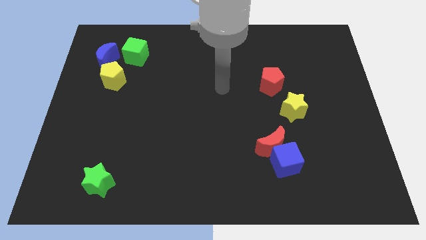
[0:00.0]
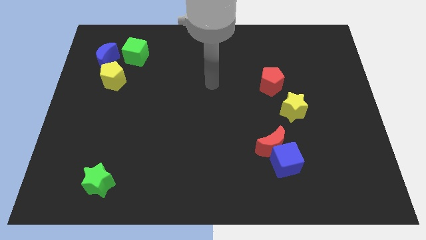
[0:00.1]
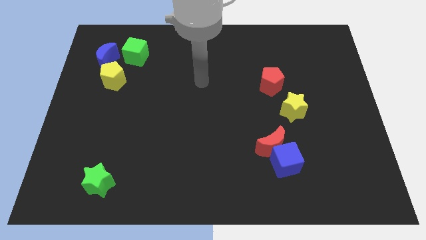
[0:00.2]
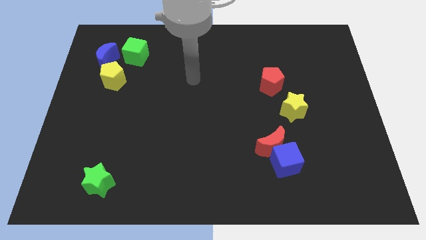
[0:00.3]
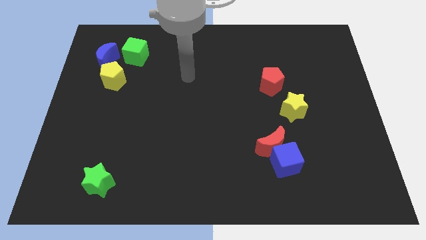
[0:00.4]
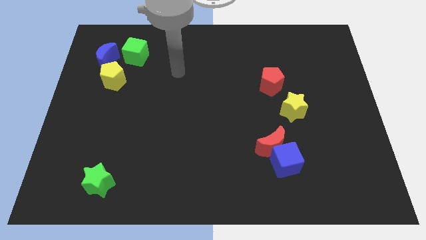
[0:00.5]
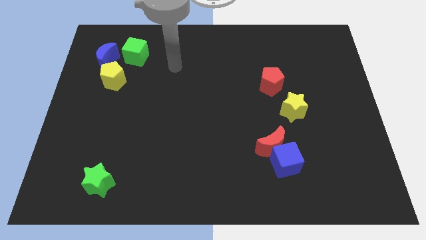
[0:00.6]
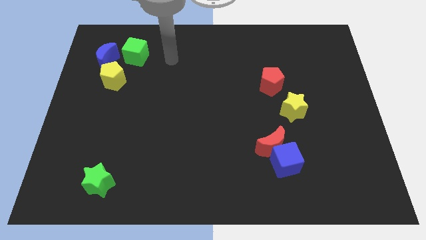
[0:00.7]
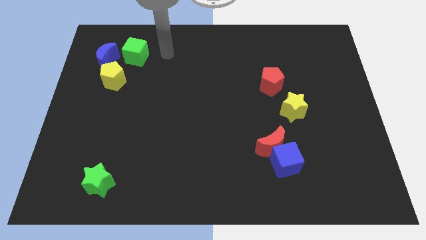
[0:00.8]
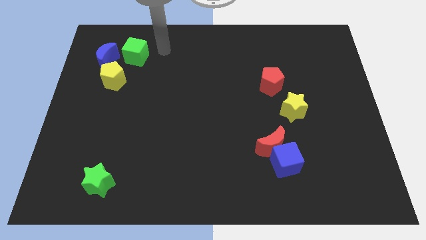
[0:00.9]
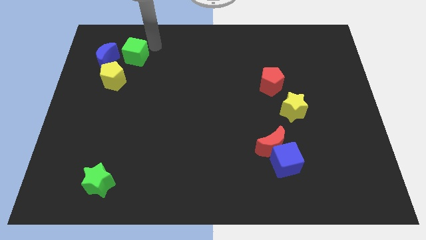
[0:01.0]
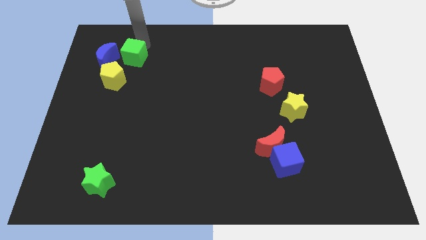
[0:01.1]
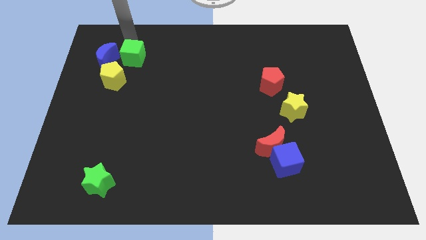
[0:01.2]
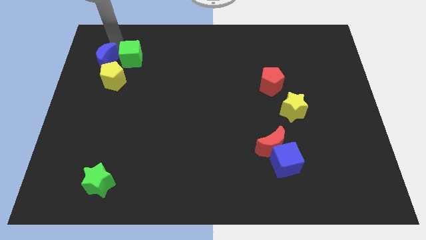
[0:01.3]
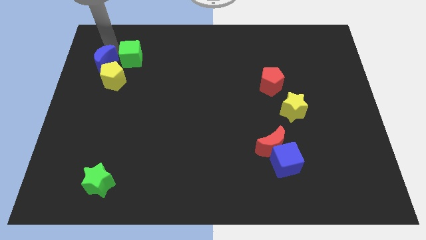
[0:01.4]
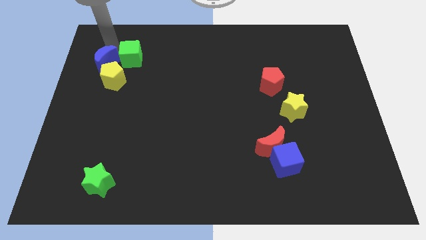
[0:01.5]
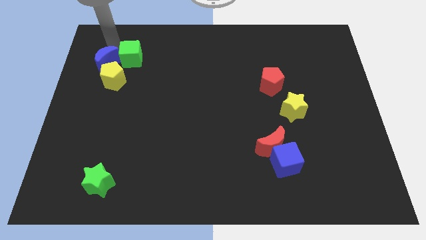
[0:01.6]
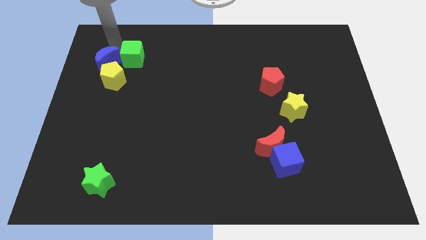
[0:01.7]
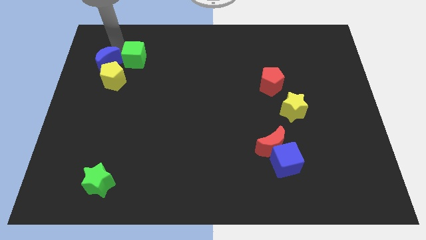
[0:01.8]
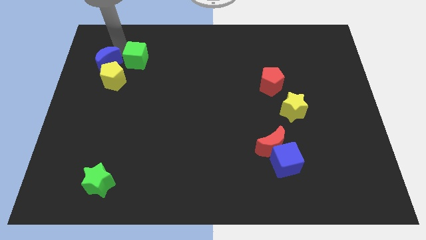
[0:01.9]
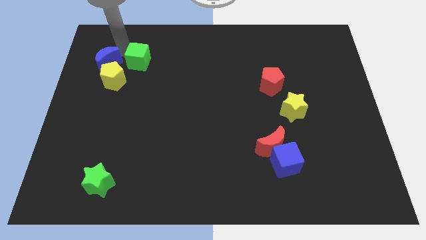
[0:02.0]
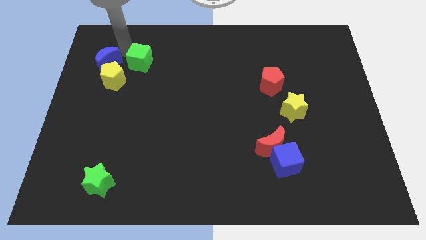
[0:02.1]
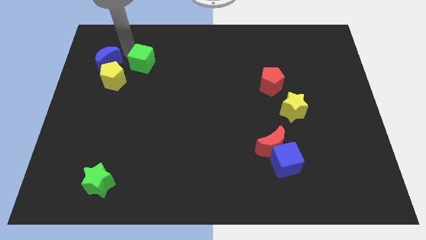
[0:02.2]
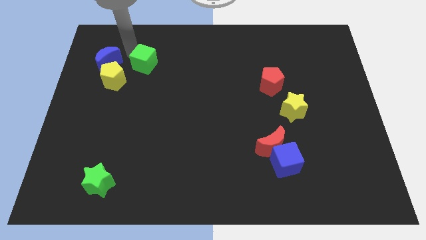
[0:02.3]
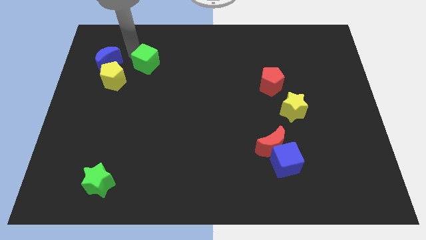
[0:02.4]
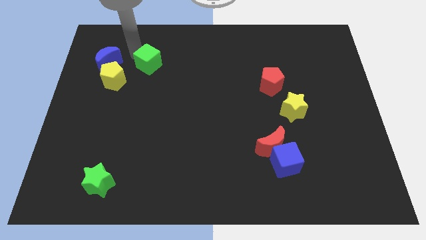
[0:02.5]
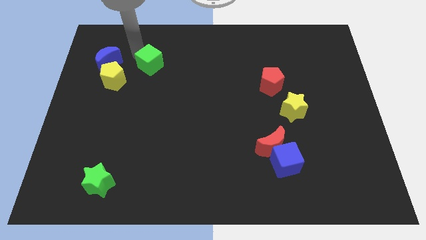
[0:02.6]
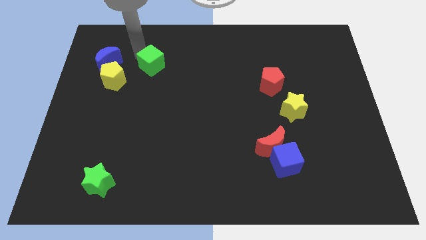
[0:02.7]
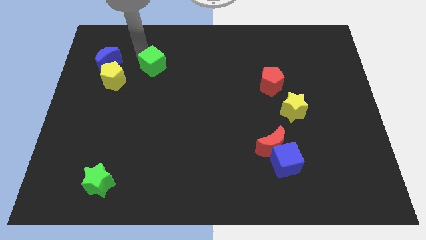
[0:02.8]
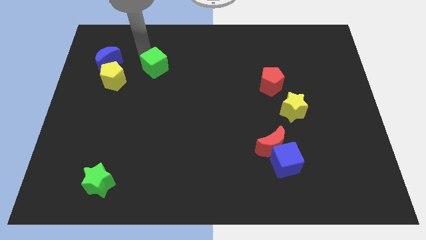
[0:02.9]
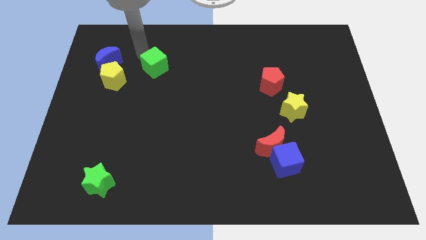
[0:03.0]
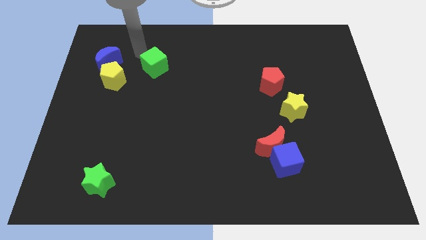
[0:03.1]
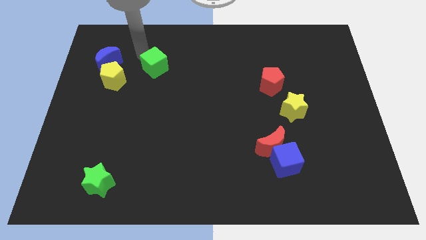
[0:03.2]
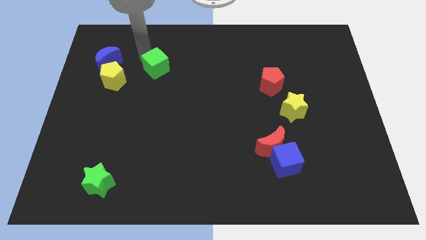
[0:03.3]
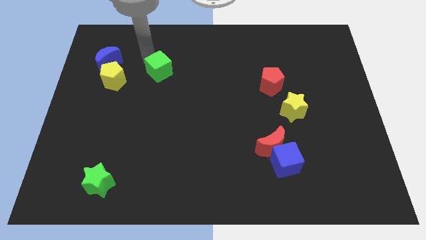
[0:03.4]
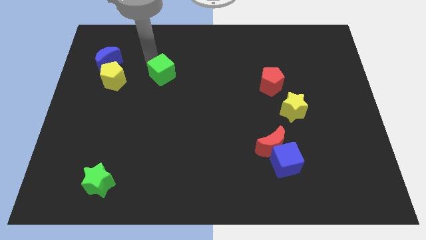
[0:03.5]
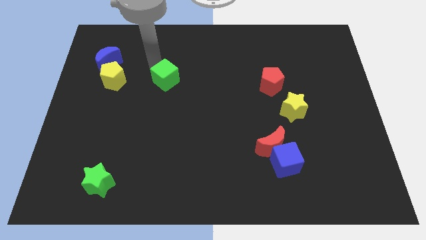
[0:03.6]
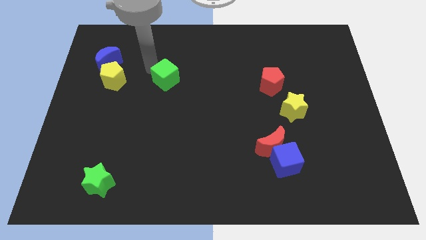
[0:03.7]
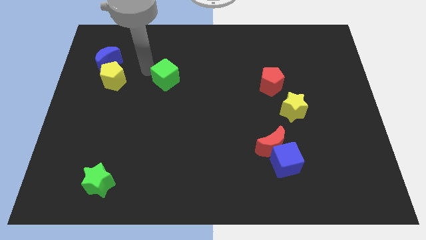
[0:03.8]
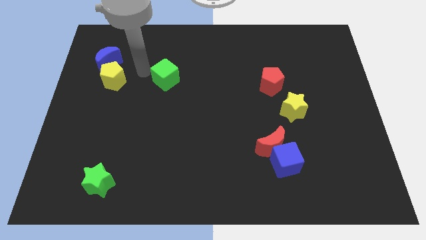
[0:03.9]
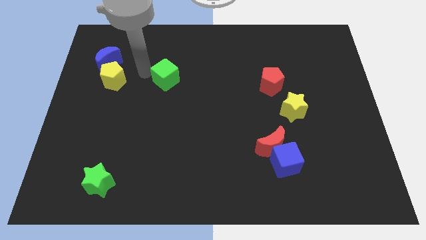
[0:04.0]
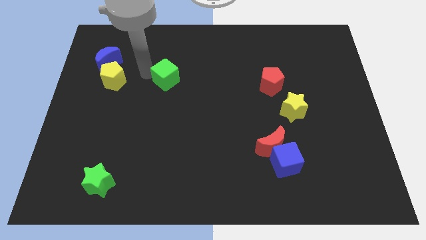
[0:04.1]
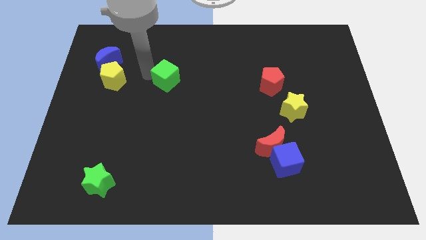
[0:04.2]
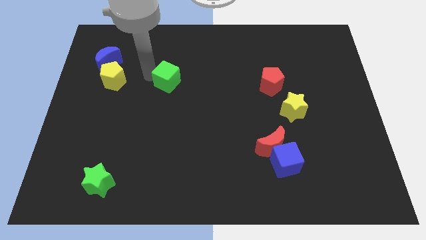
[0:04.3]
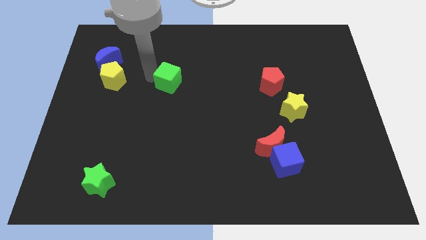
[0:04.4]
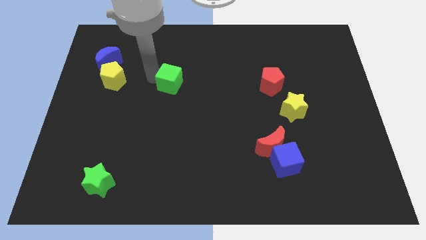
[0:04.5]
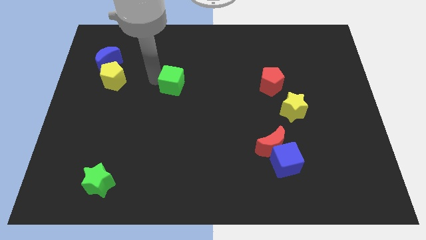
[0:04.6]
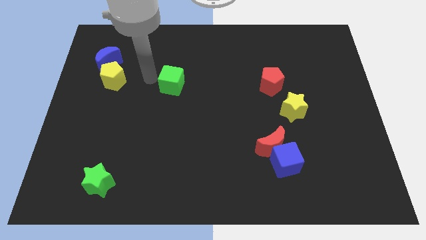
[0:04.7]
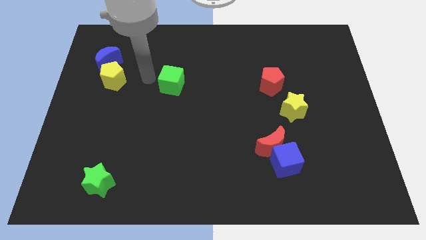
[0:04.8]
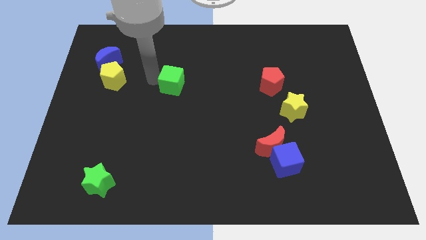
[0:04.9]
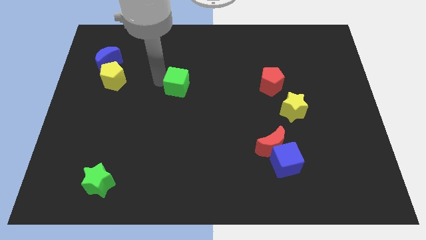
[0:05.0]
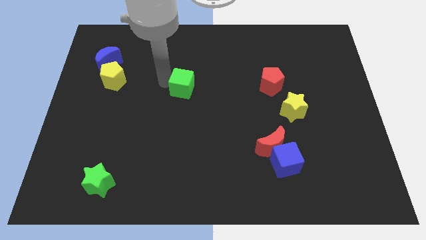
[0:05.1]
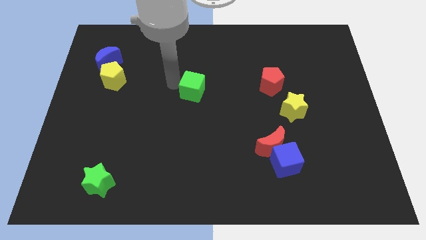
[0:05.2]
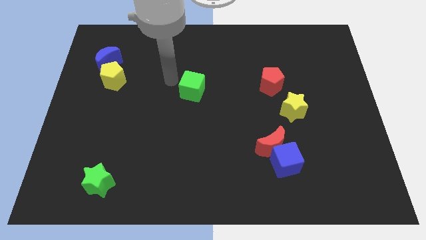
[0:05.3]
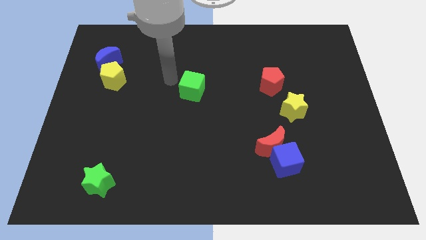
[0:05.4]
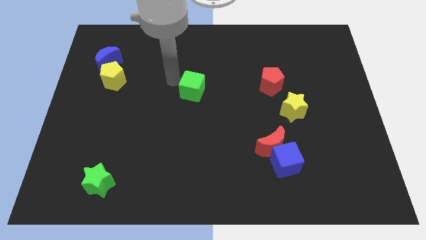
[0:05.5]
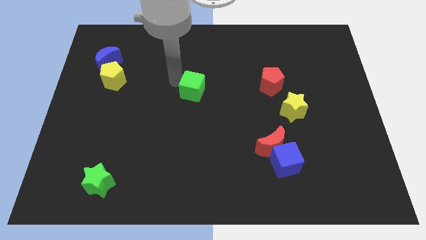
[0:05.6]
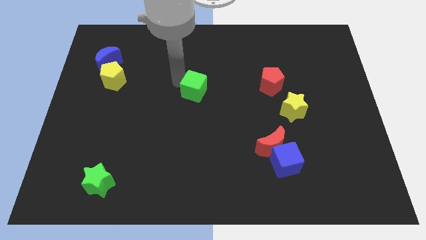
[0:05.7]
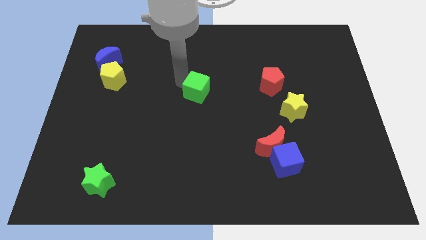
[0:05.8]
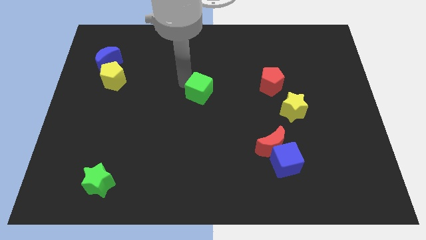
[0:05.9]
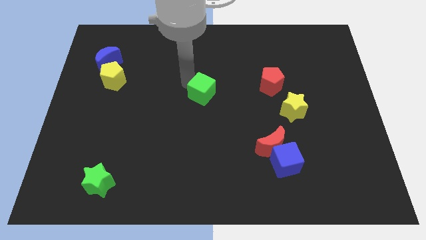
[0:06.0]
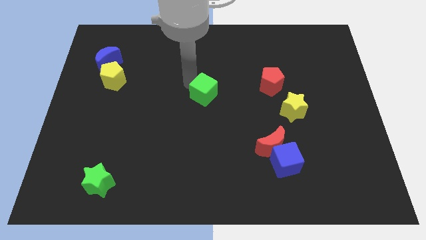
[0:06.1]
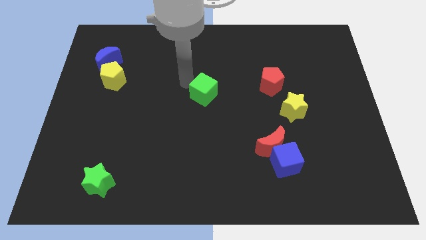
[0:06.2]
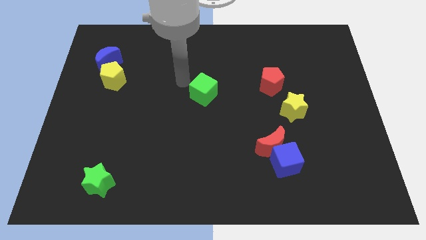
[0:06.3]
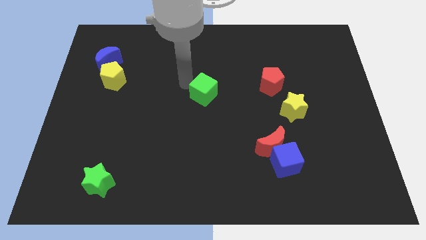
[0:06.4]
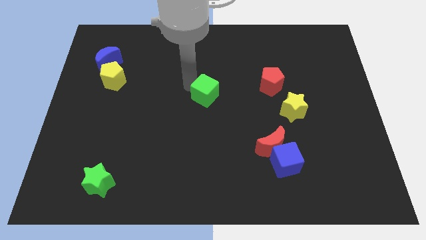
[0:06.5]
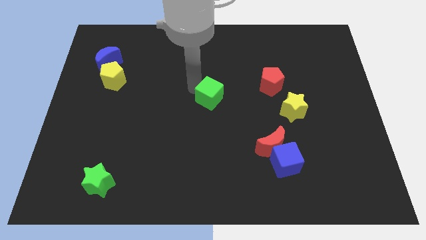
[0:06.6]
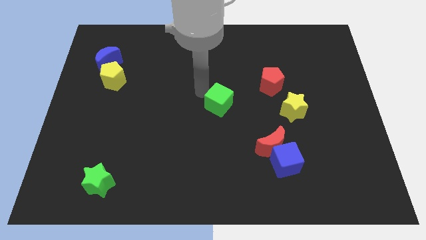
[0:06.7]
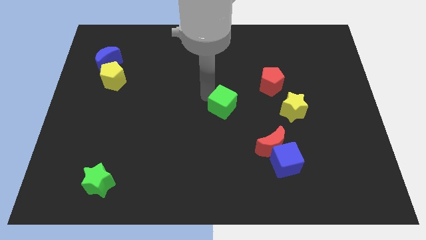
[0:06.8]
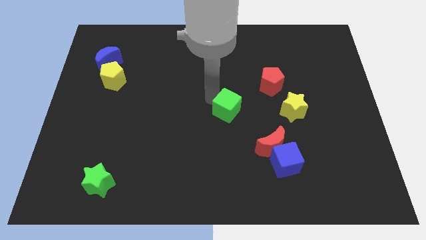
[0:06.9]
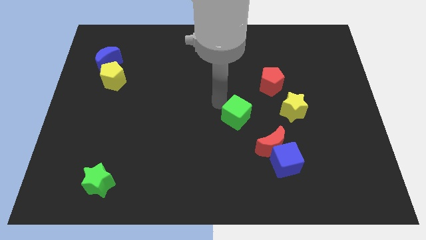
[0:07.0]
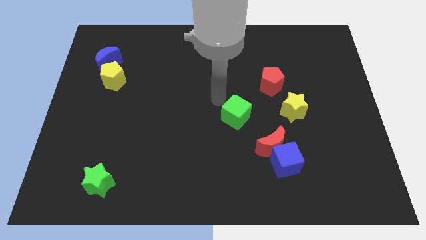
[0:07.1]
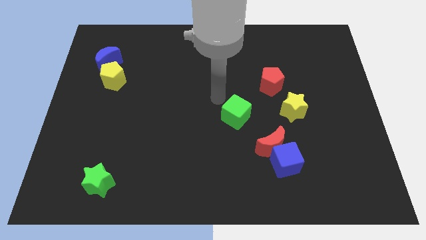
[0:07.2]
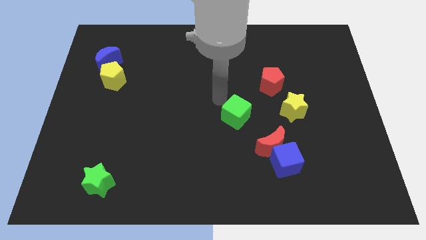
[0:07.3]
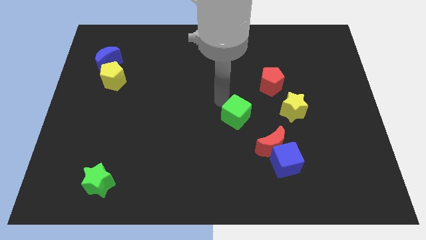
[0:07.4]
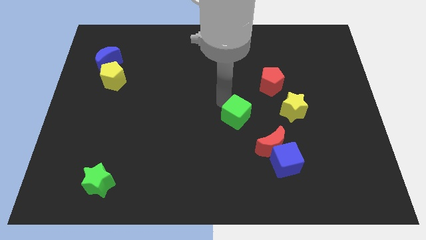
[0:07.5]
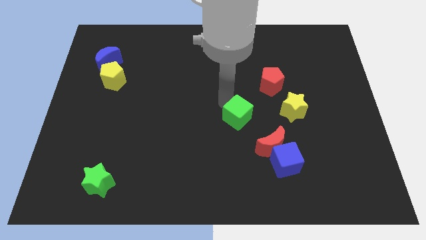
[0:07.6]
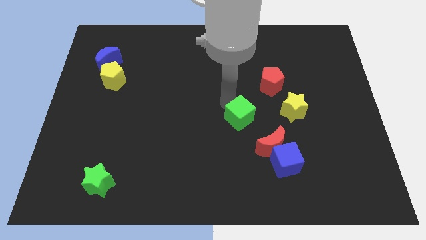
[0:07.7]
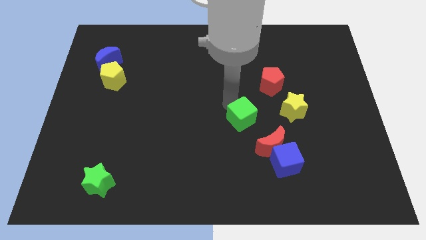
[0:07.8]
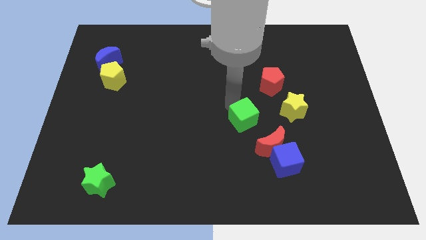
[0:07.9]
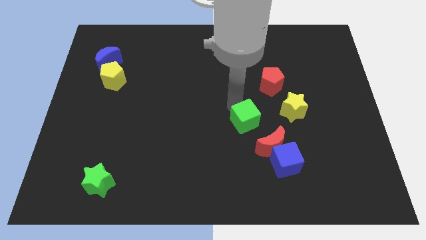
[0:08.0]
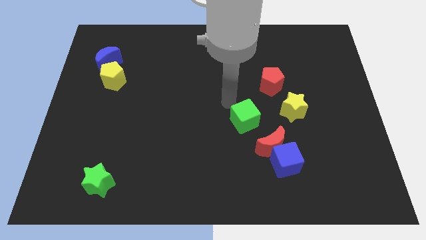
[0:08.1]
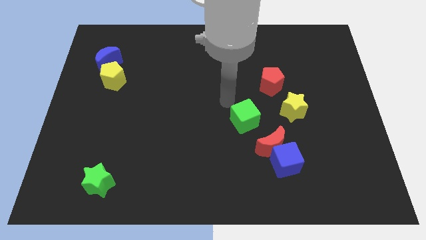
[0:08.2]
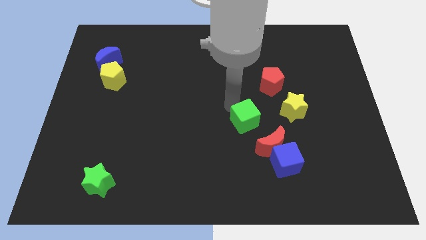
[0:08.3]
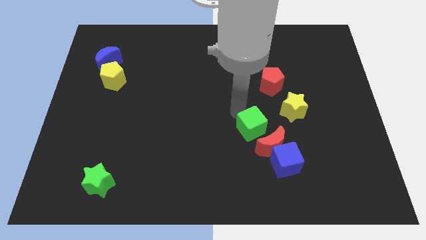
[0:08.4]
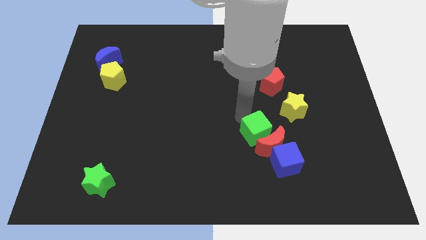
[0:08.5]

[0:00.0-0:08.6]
move the green cube close to the red moon
